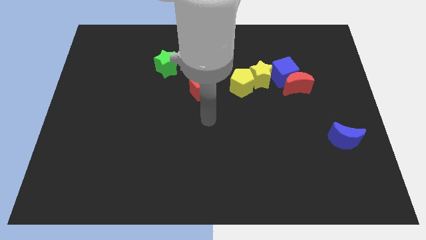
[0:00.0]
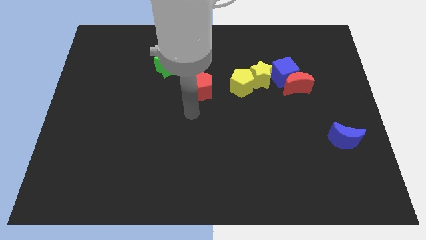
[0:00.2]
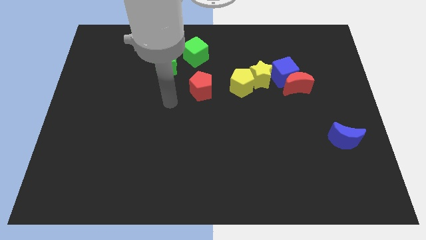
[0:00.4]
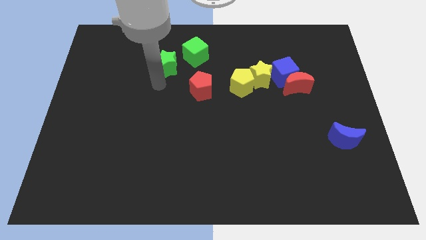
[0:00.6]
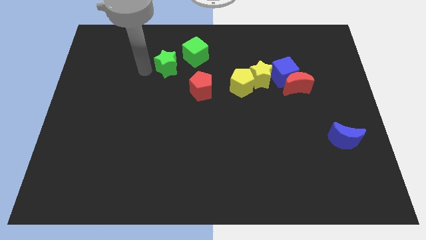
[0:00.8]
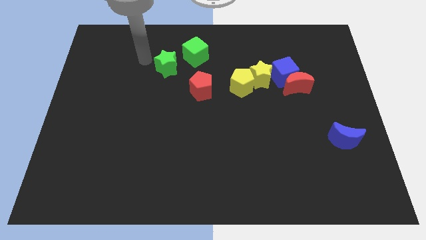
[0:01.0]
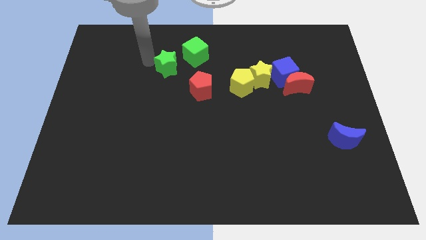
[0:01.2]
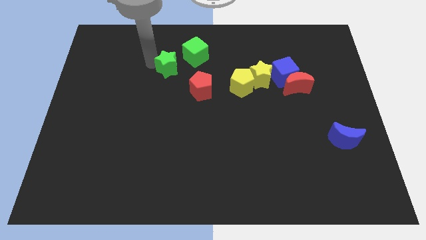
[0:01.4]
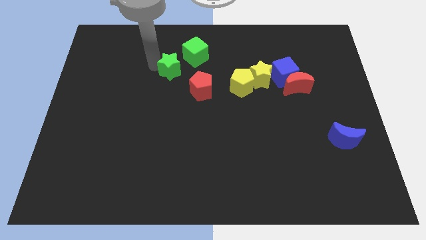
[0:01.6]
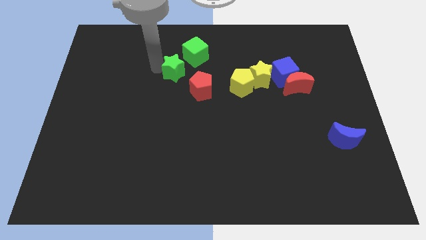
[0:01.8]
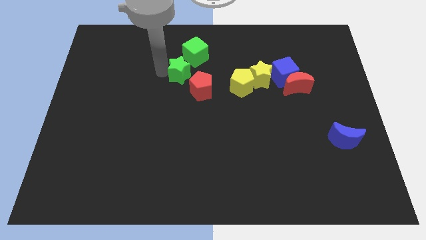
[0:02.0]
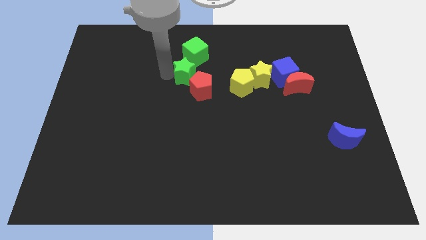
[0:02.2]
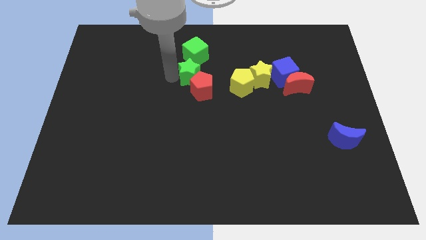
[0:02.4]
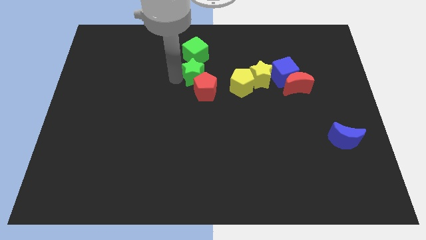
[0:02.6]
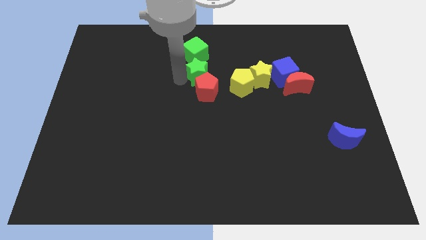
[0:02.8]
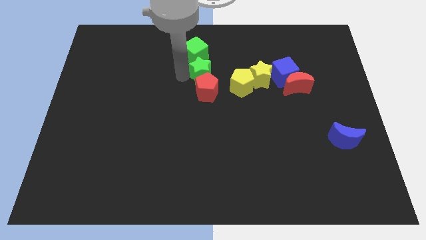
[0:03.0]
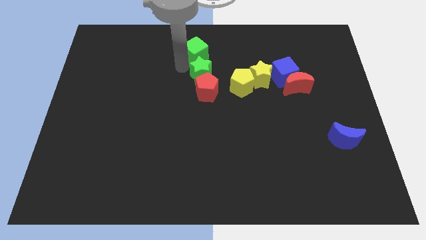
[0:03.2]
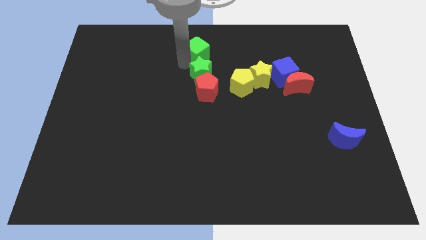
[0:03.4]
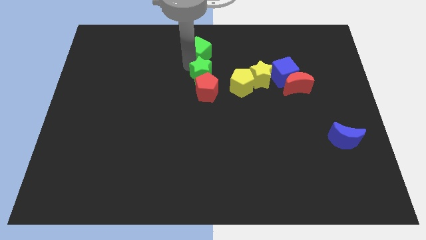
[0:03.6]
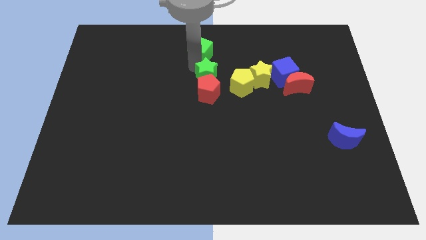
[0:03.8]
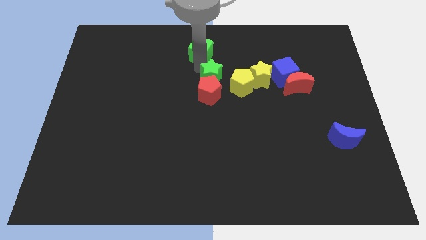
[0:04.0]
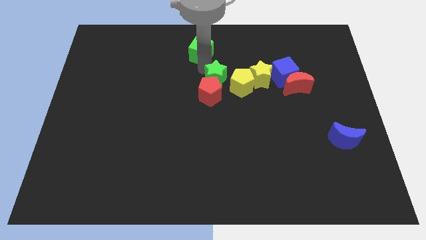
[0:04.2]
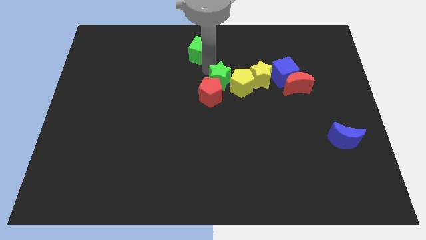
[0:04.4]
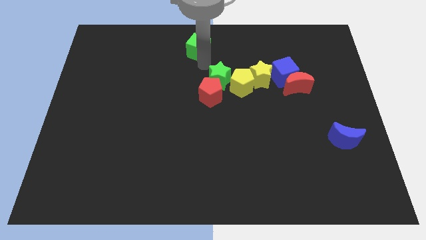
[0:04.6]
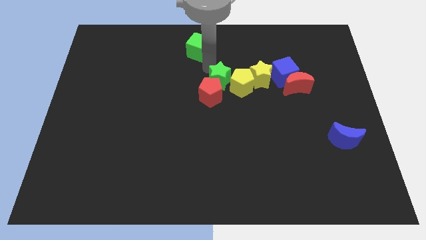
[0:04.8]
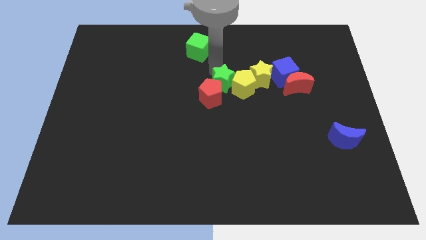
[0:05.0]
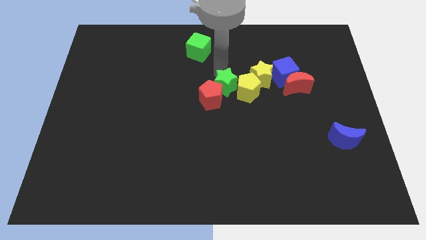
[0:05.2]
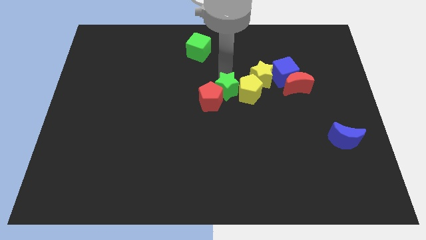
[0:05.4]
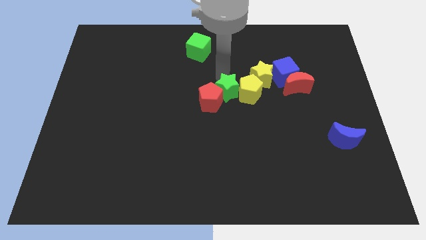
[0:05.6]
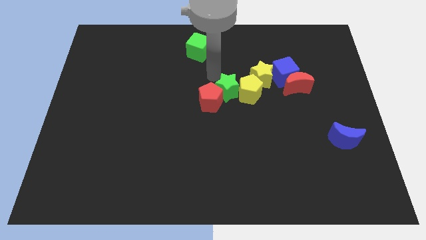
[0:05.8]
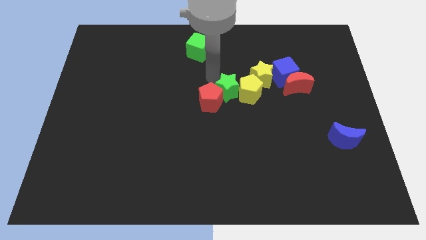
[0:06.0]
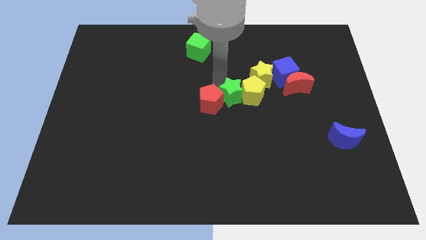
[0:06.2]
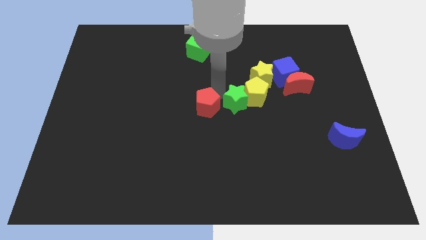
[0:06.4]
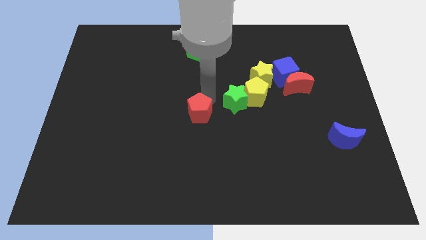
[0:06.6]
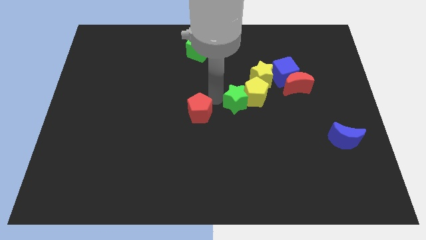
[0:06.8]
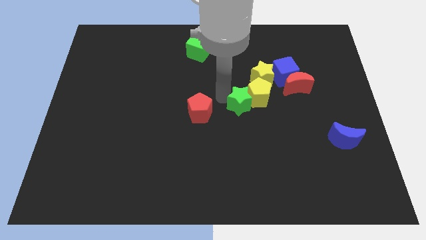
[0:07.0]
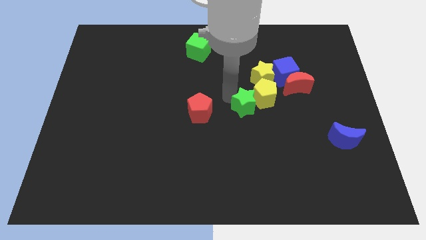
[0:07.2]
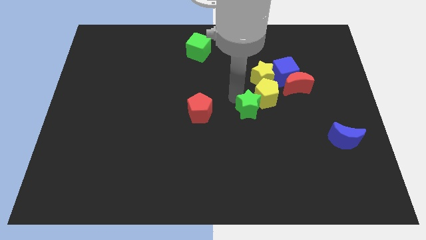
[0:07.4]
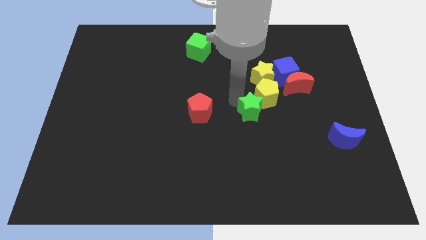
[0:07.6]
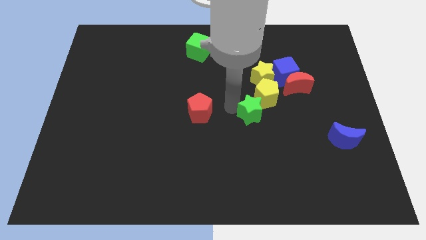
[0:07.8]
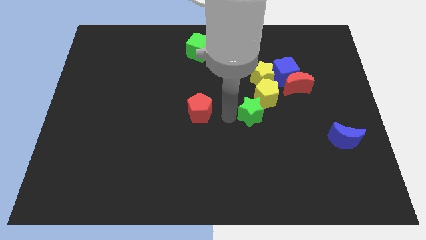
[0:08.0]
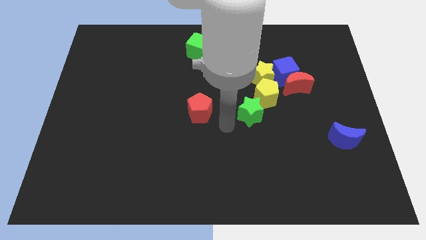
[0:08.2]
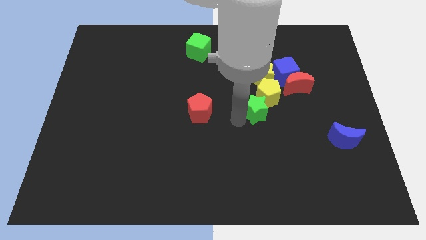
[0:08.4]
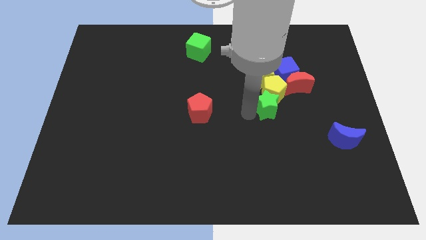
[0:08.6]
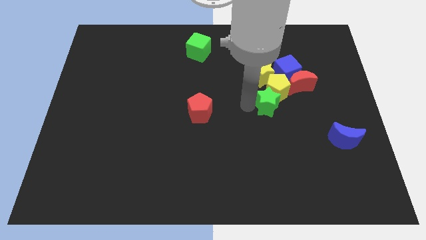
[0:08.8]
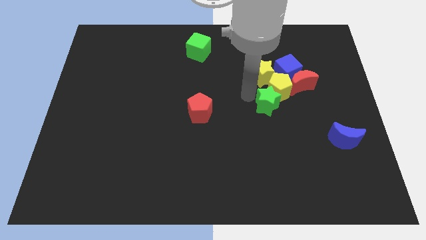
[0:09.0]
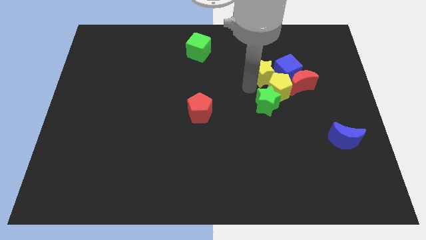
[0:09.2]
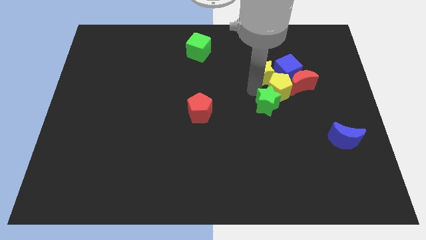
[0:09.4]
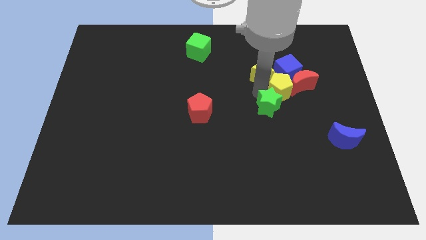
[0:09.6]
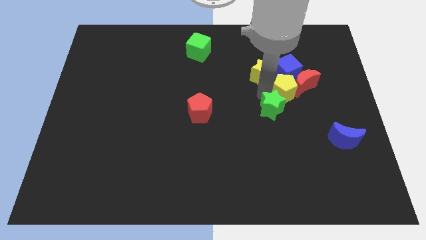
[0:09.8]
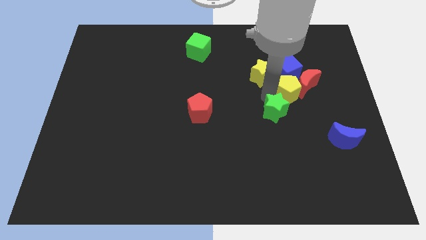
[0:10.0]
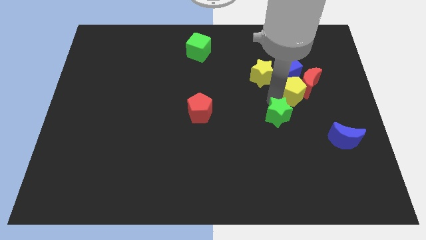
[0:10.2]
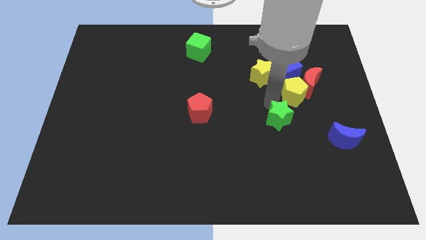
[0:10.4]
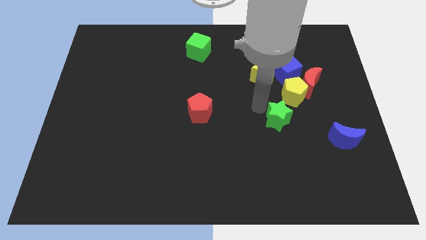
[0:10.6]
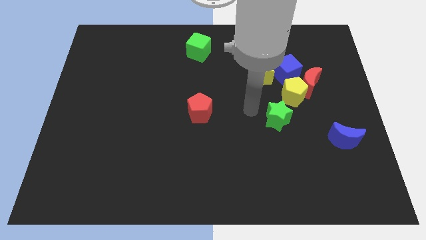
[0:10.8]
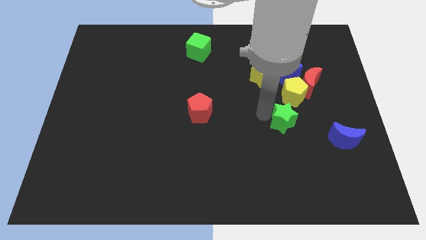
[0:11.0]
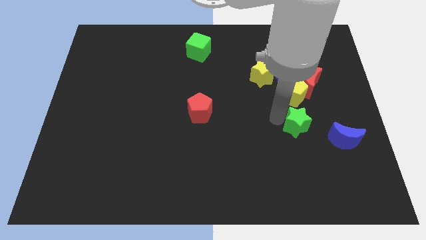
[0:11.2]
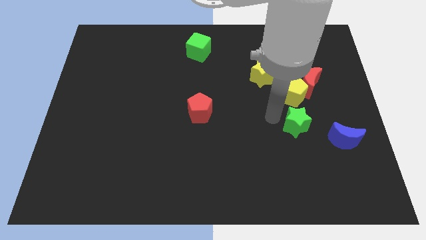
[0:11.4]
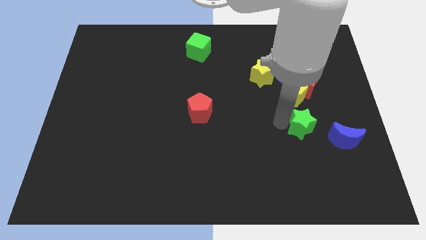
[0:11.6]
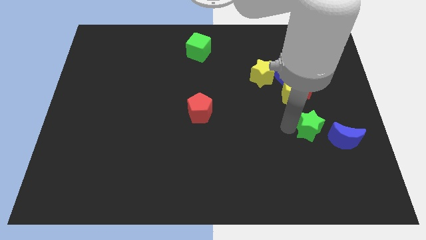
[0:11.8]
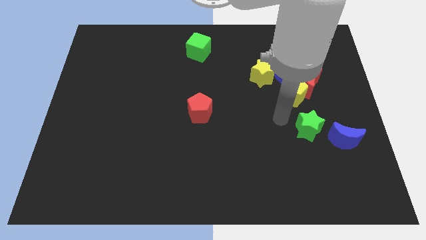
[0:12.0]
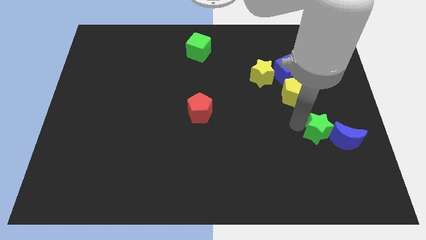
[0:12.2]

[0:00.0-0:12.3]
slide the green star close to the blue moon
